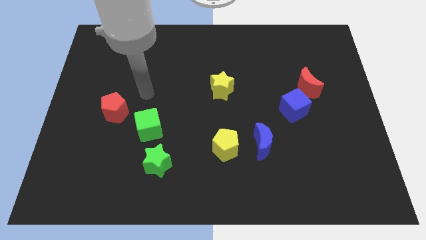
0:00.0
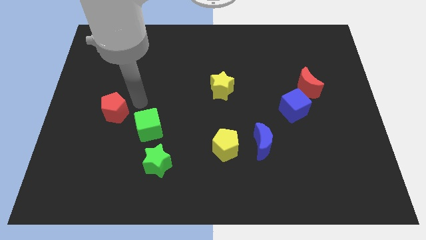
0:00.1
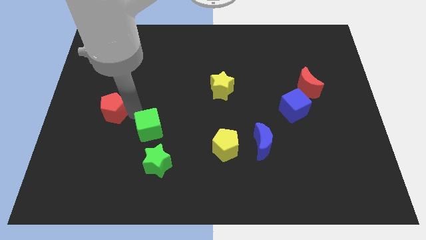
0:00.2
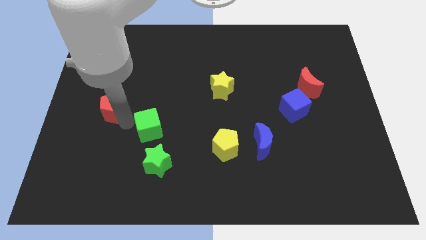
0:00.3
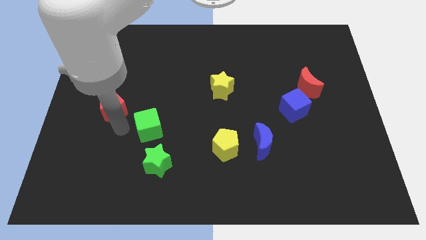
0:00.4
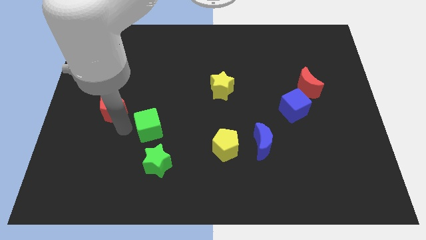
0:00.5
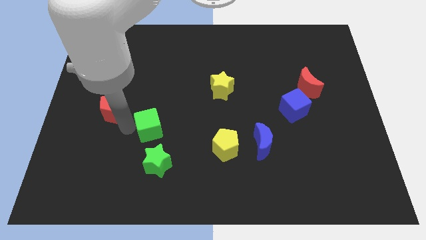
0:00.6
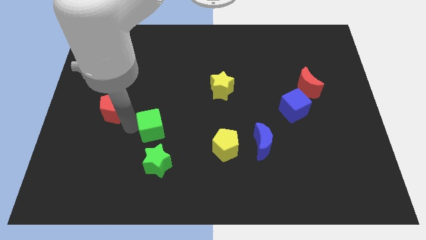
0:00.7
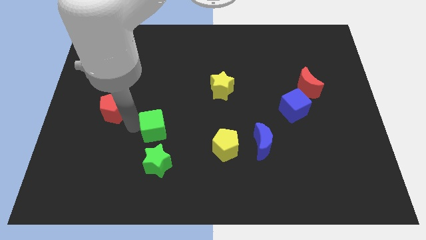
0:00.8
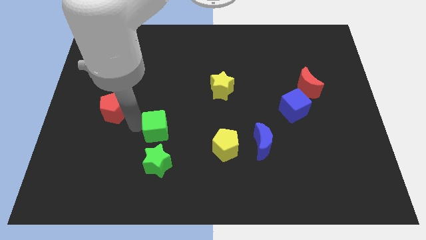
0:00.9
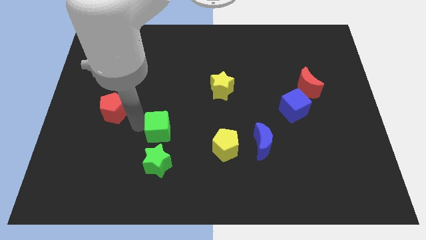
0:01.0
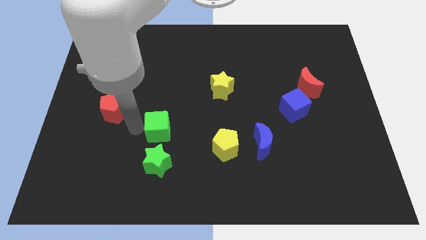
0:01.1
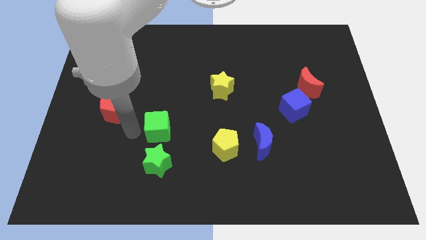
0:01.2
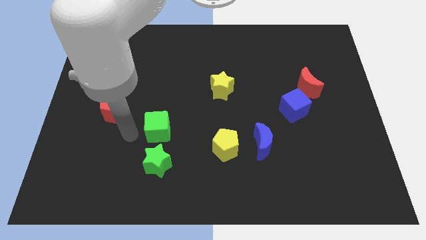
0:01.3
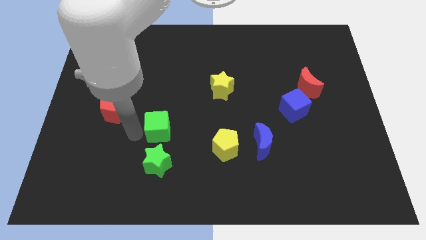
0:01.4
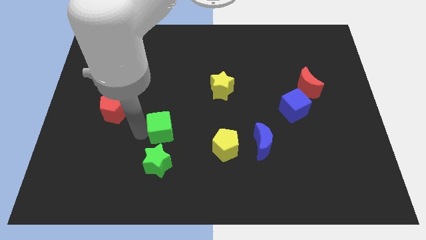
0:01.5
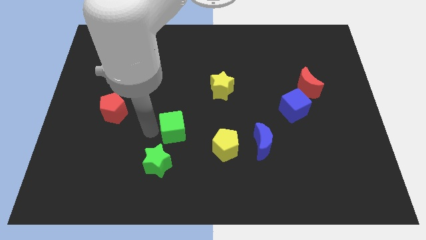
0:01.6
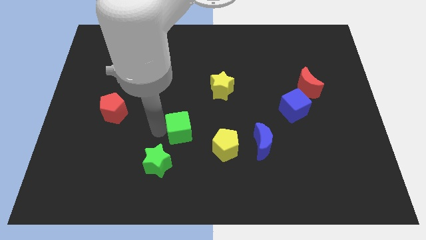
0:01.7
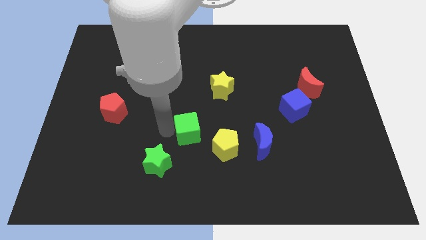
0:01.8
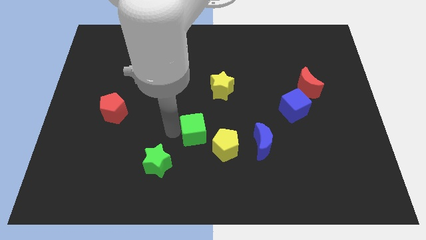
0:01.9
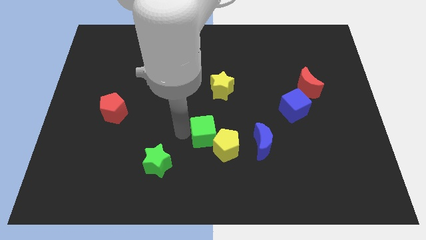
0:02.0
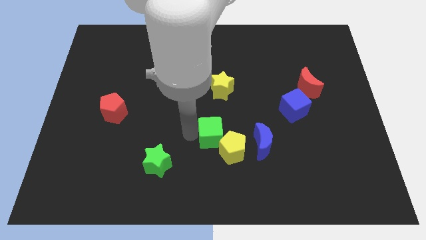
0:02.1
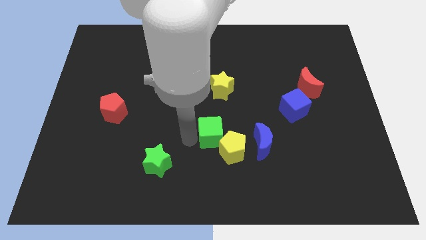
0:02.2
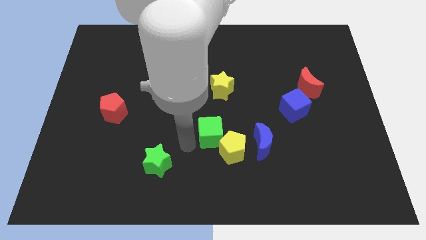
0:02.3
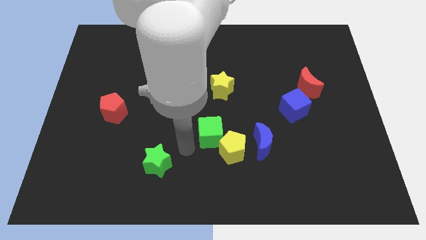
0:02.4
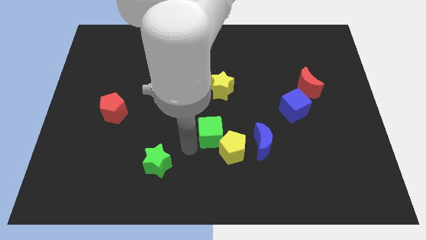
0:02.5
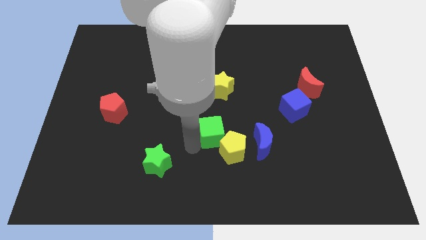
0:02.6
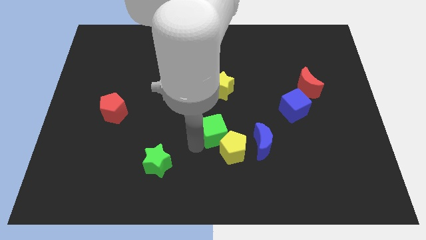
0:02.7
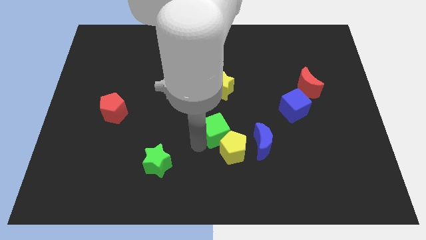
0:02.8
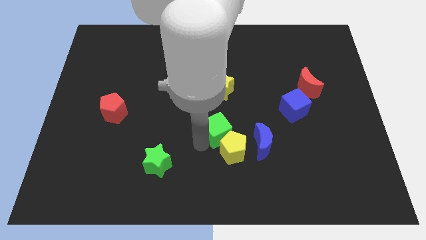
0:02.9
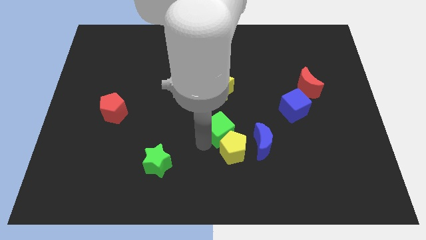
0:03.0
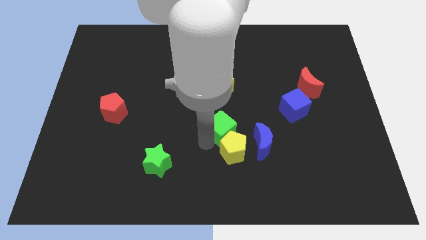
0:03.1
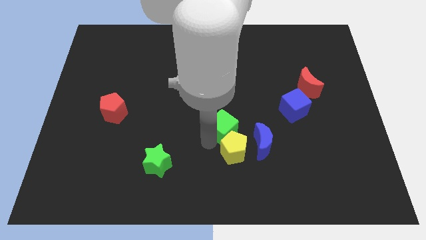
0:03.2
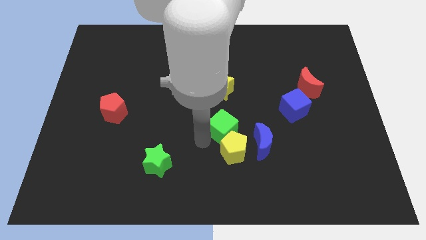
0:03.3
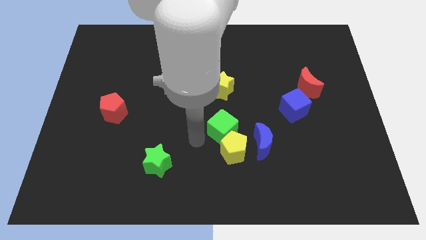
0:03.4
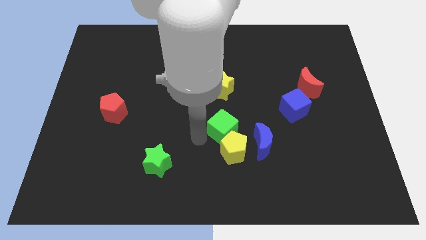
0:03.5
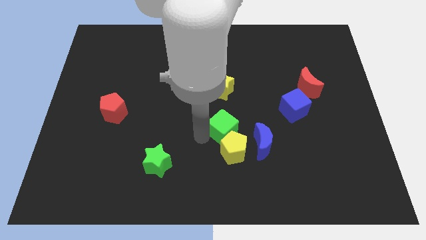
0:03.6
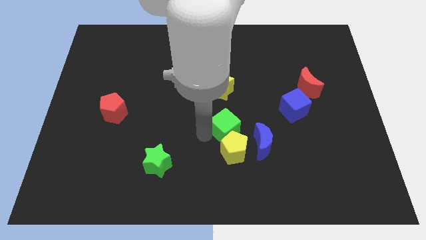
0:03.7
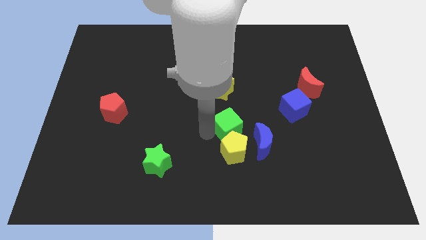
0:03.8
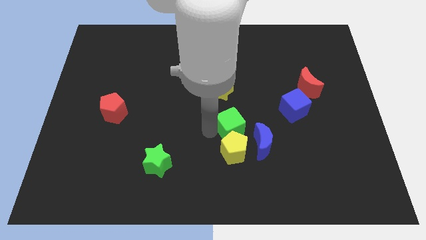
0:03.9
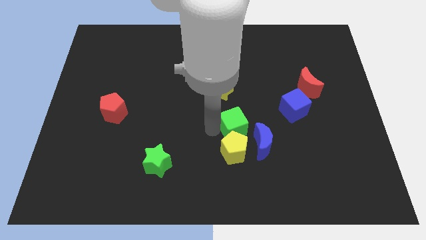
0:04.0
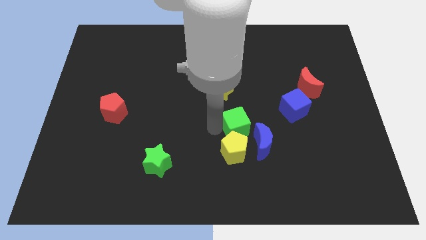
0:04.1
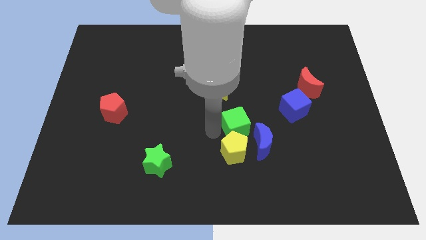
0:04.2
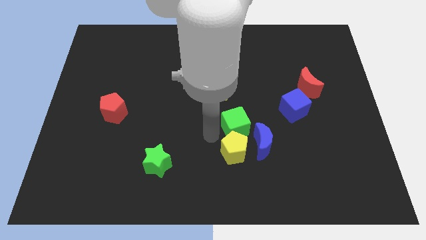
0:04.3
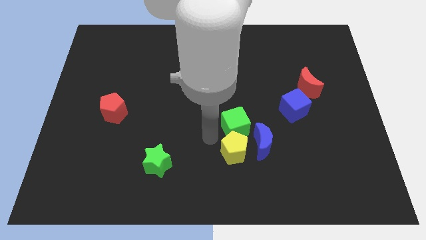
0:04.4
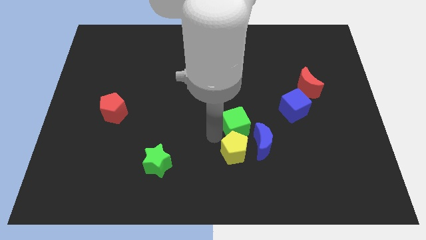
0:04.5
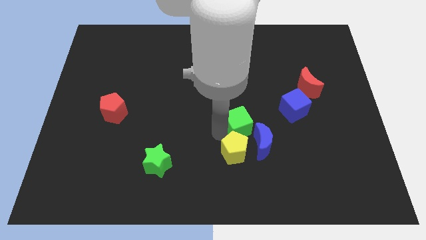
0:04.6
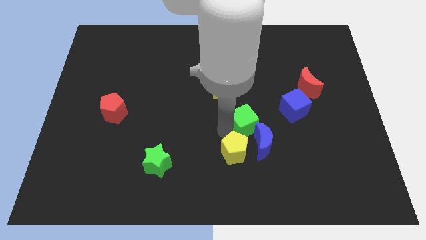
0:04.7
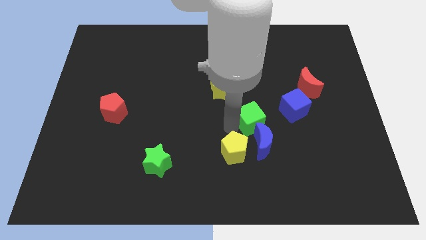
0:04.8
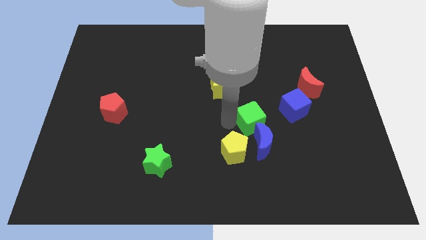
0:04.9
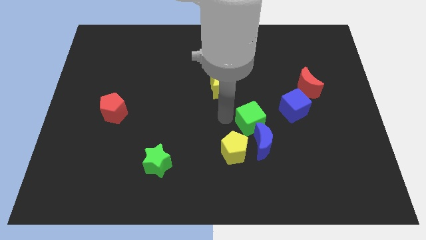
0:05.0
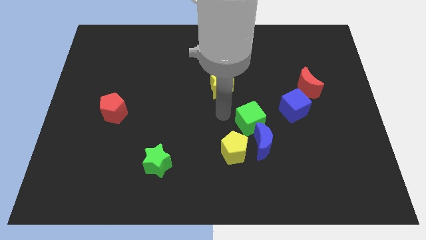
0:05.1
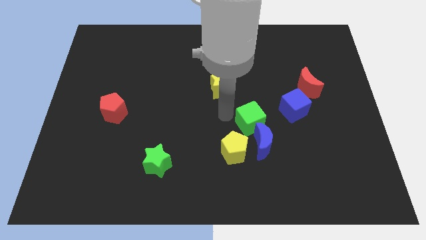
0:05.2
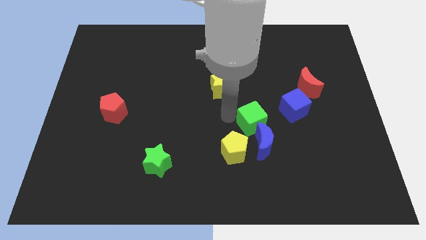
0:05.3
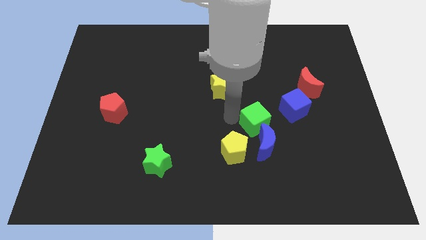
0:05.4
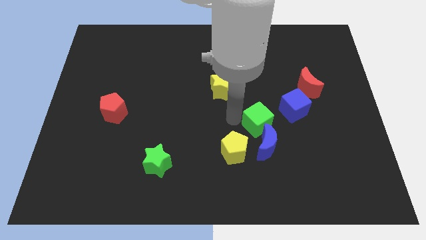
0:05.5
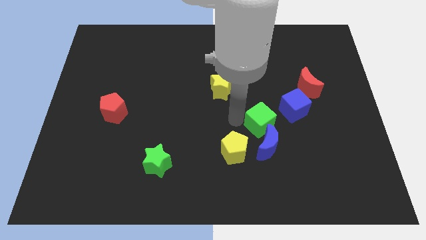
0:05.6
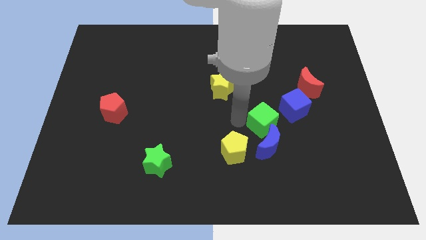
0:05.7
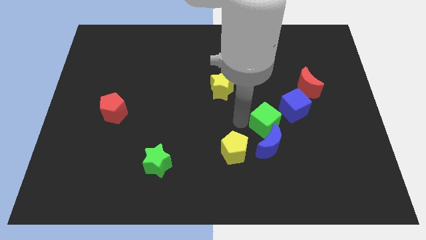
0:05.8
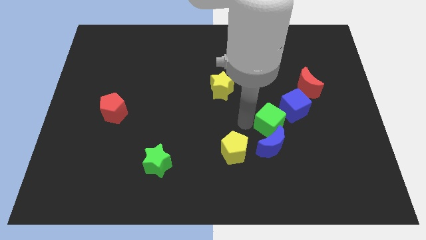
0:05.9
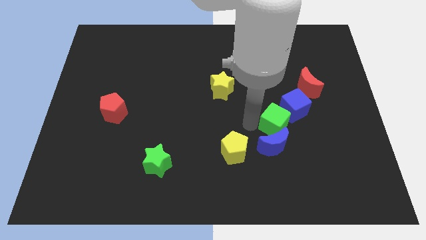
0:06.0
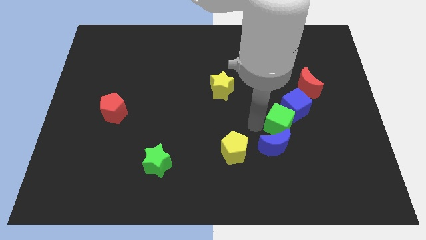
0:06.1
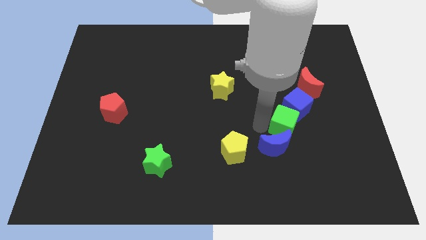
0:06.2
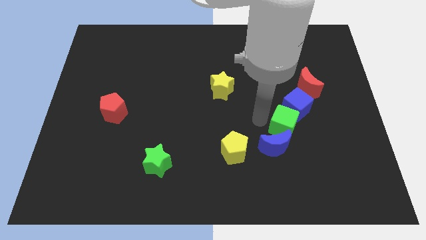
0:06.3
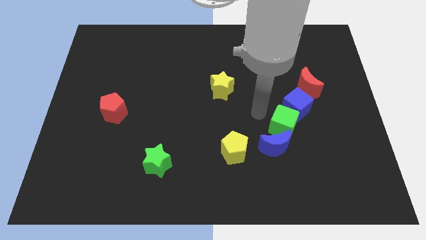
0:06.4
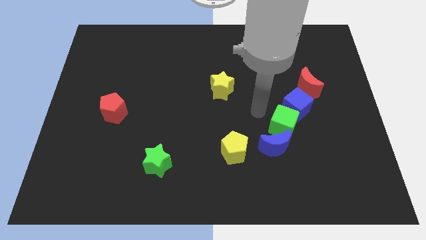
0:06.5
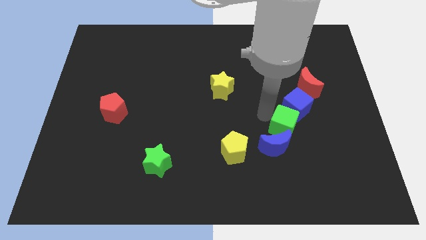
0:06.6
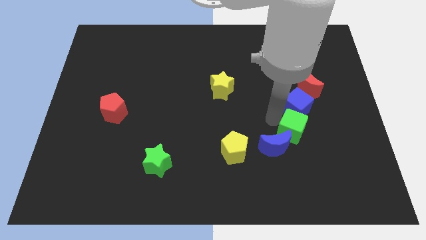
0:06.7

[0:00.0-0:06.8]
push the green cube right of the blue moon

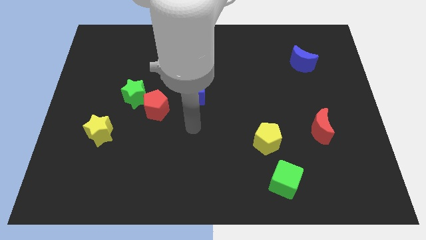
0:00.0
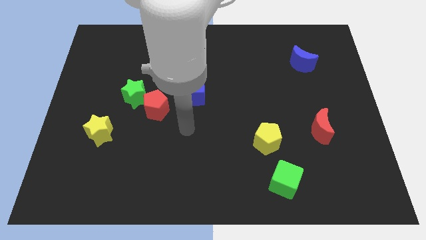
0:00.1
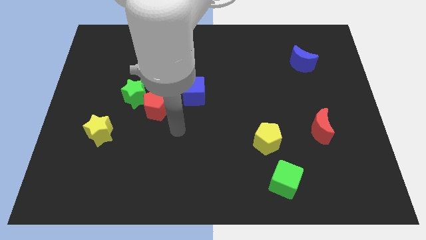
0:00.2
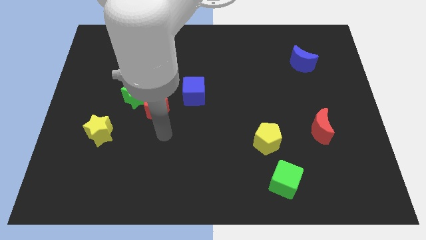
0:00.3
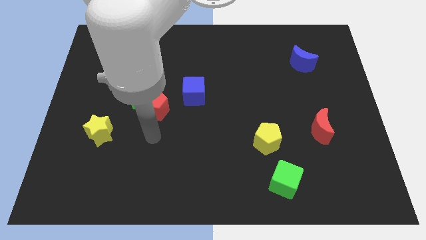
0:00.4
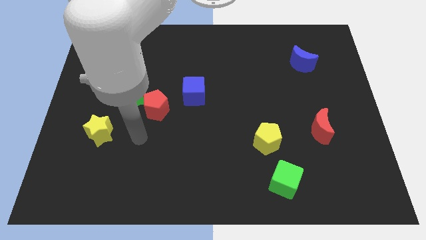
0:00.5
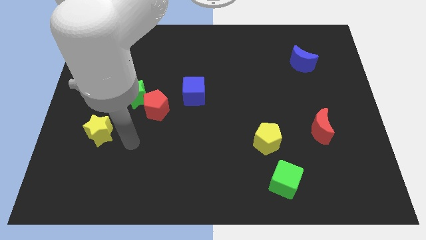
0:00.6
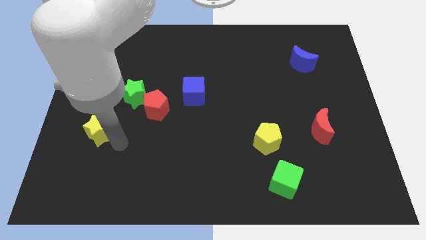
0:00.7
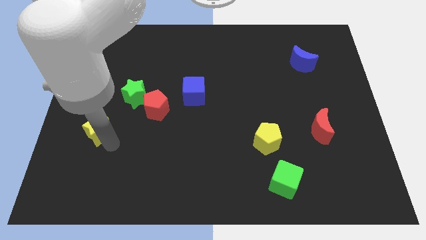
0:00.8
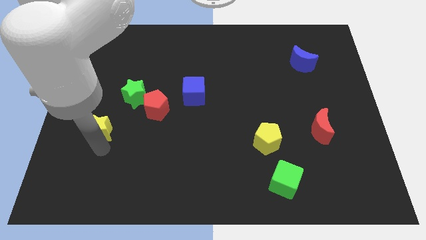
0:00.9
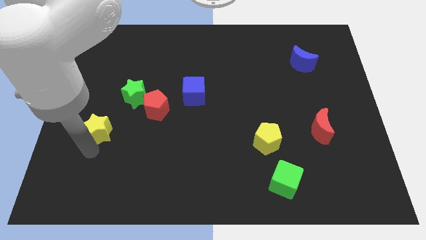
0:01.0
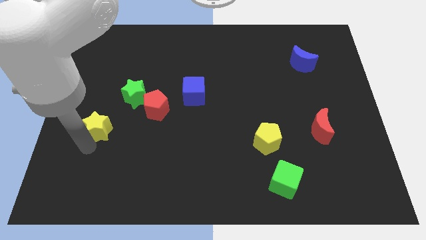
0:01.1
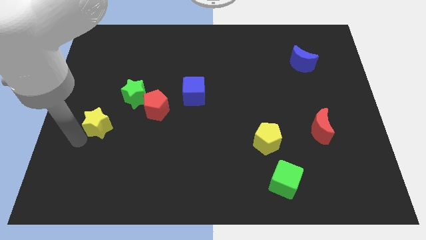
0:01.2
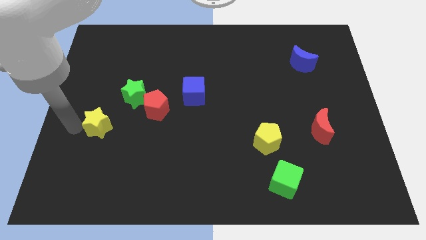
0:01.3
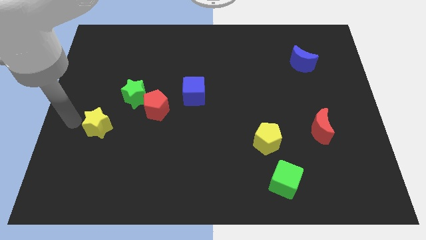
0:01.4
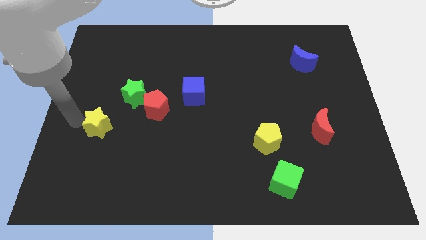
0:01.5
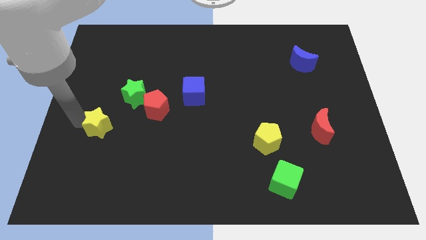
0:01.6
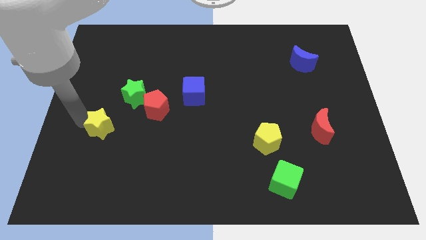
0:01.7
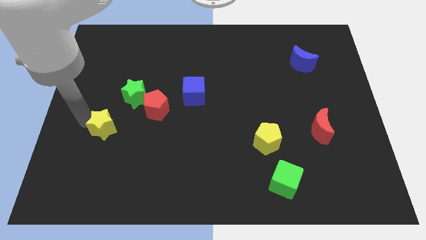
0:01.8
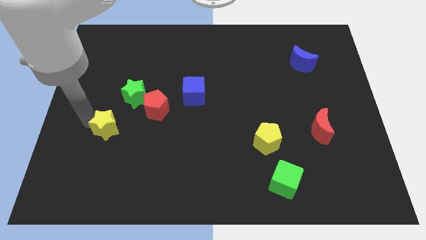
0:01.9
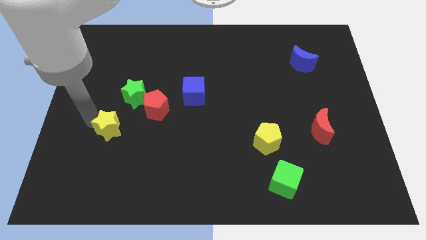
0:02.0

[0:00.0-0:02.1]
slide the yellow star below the green star
